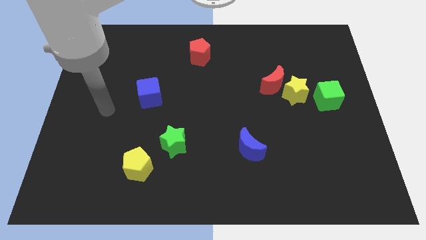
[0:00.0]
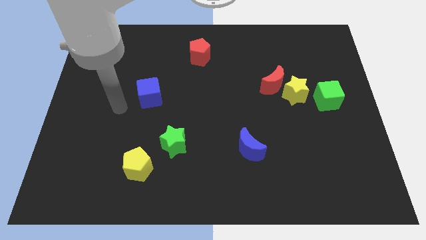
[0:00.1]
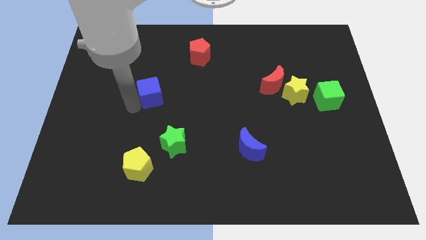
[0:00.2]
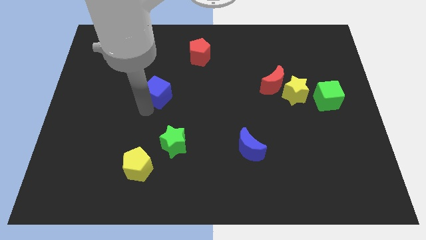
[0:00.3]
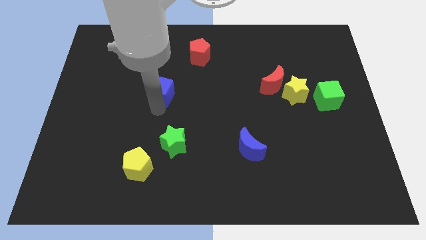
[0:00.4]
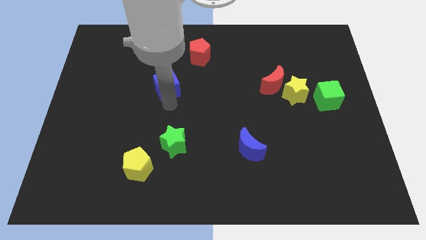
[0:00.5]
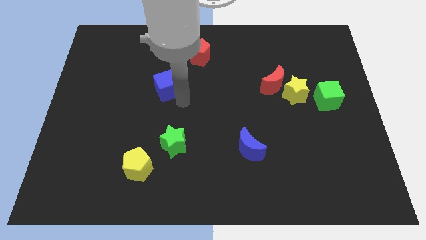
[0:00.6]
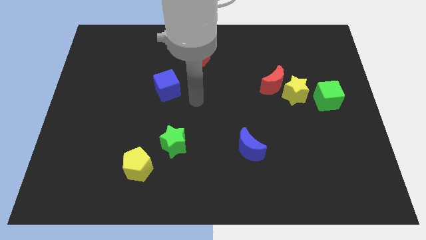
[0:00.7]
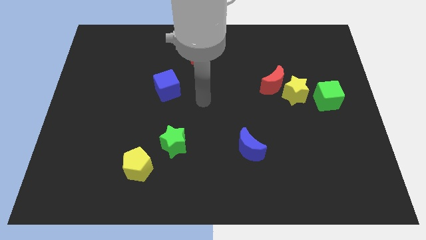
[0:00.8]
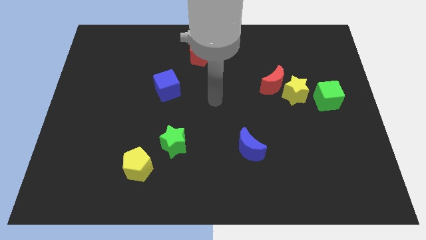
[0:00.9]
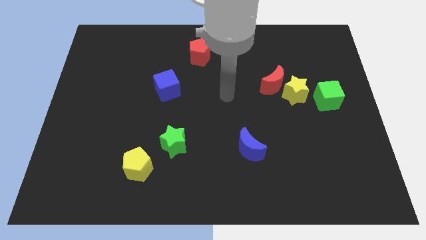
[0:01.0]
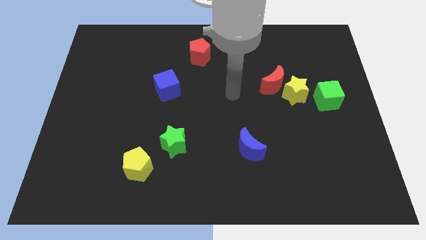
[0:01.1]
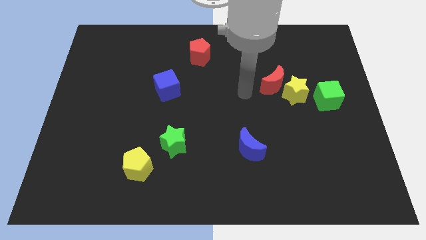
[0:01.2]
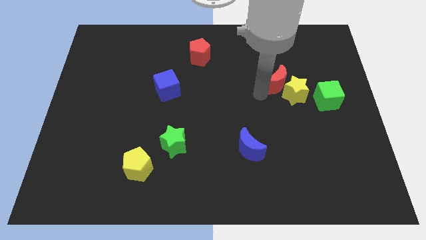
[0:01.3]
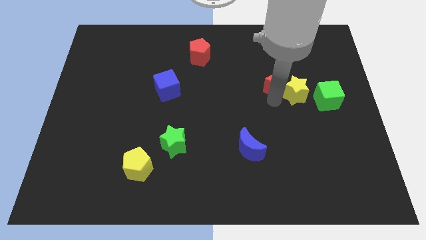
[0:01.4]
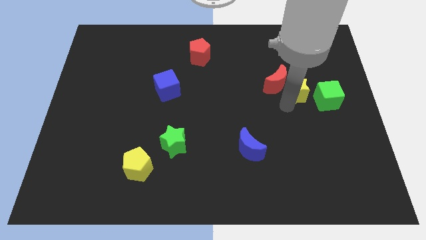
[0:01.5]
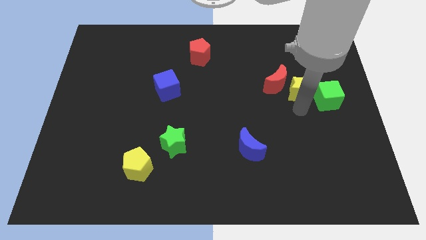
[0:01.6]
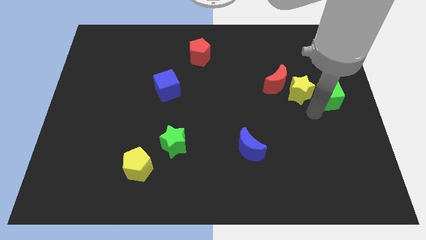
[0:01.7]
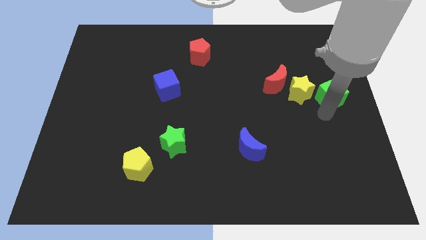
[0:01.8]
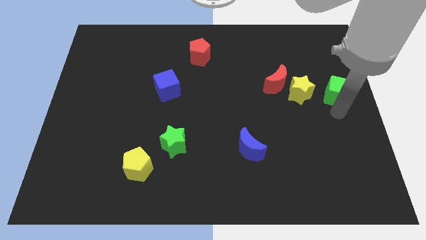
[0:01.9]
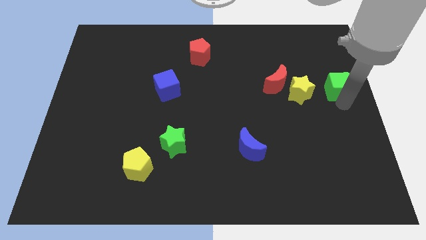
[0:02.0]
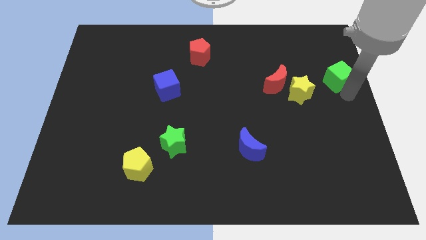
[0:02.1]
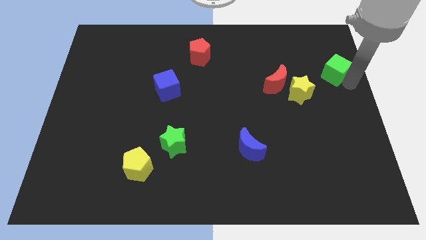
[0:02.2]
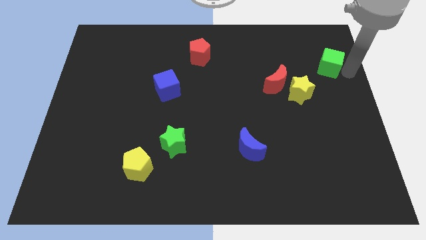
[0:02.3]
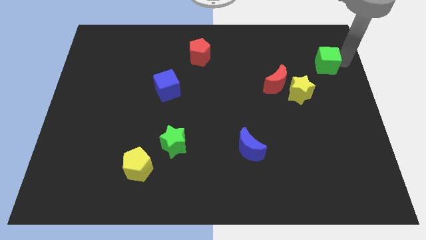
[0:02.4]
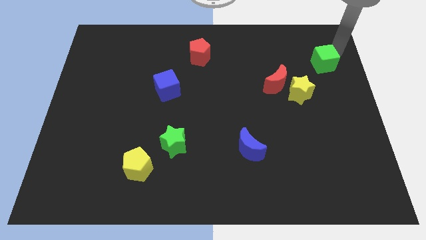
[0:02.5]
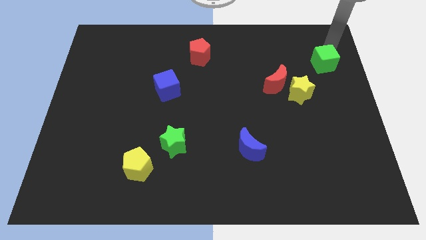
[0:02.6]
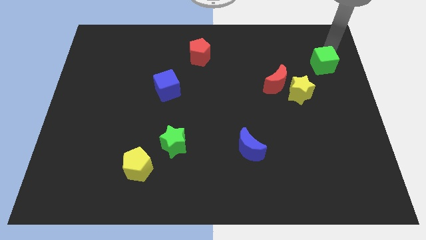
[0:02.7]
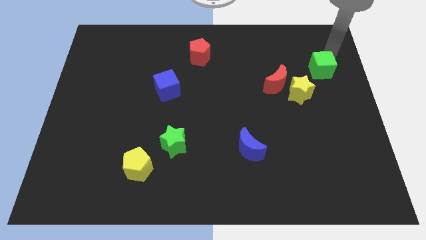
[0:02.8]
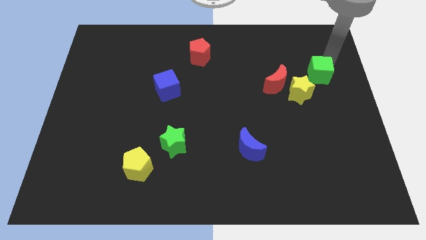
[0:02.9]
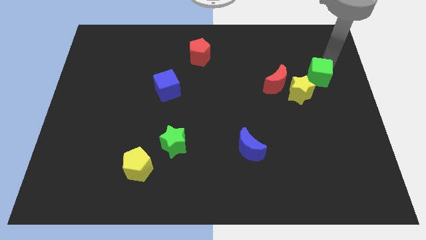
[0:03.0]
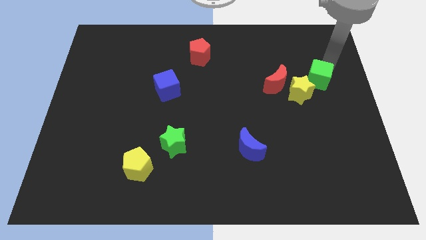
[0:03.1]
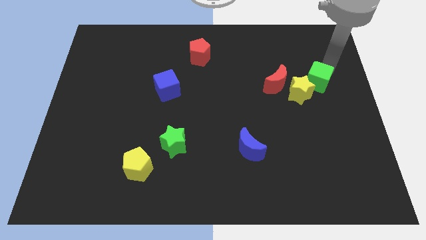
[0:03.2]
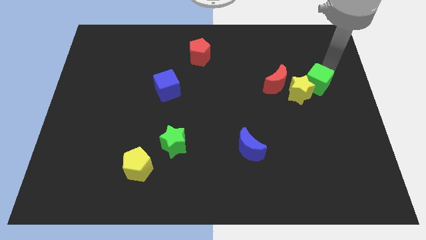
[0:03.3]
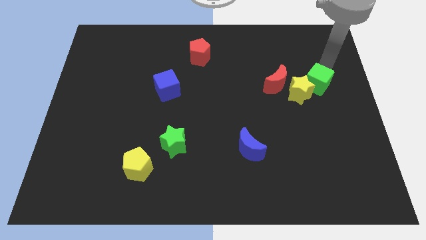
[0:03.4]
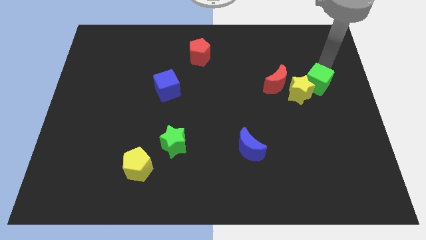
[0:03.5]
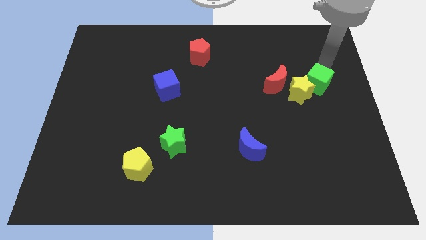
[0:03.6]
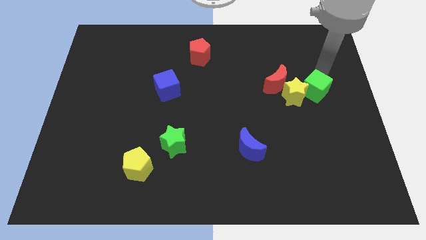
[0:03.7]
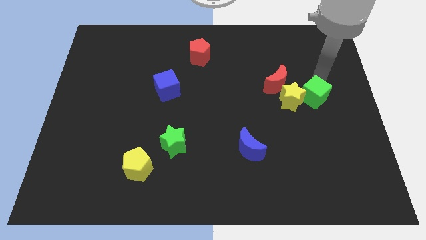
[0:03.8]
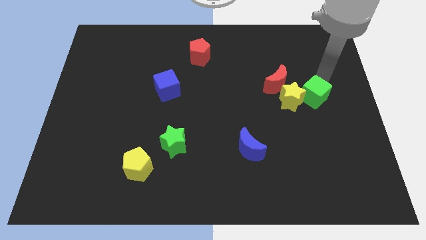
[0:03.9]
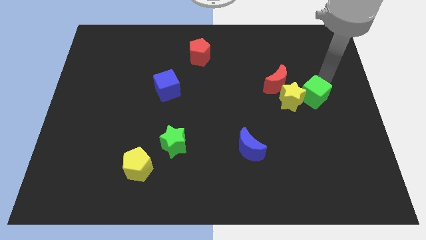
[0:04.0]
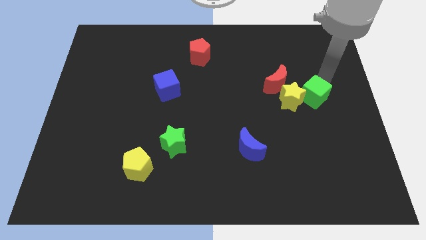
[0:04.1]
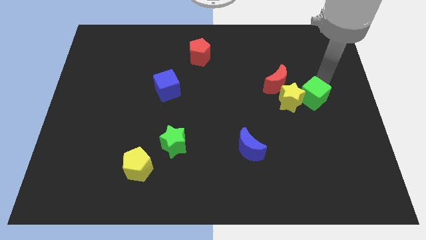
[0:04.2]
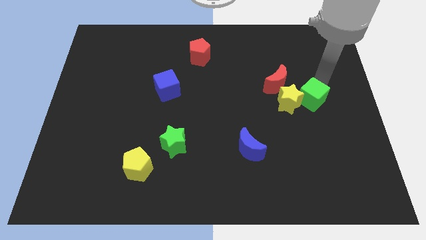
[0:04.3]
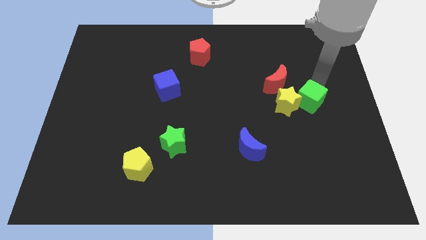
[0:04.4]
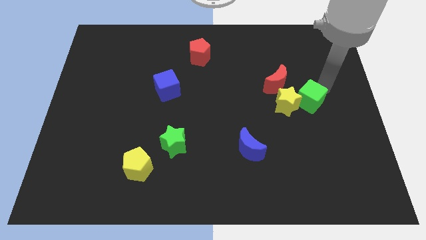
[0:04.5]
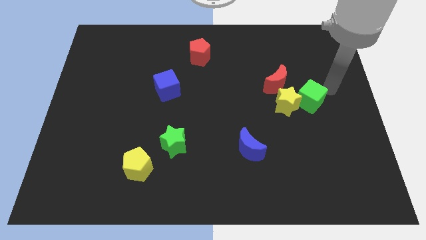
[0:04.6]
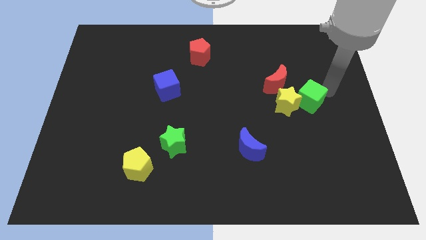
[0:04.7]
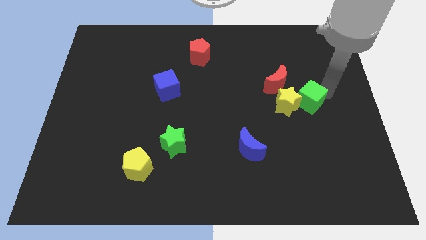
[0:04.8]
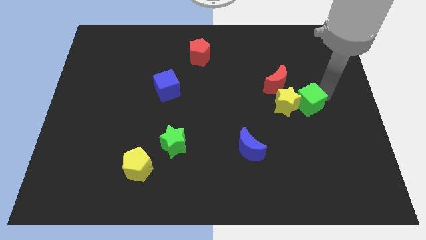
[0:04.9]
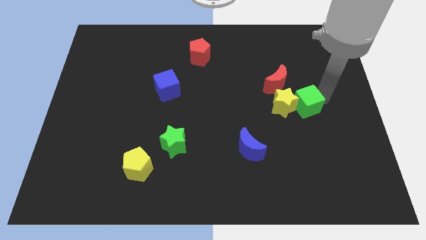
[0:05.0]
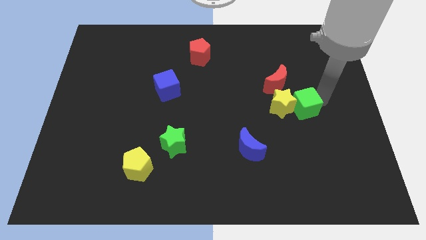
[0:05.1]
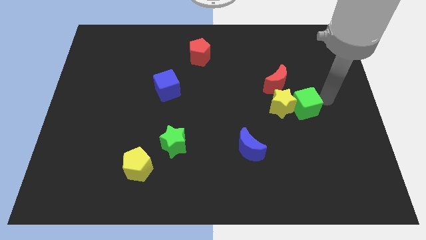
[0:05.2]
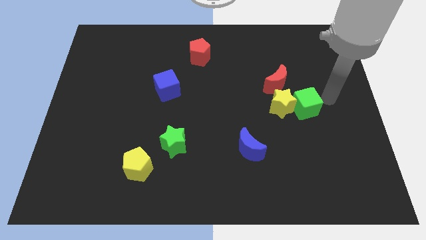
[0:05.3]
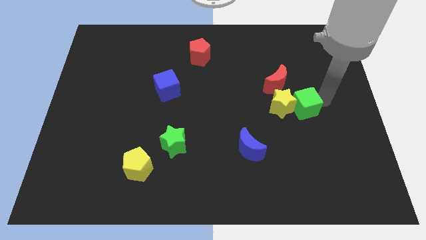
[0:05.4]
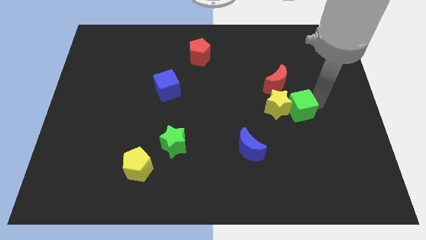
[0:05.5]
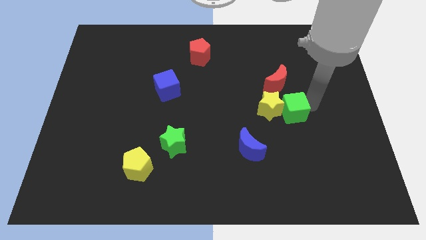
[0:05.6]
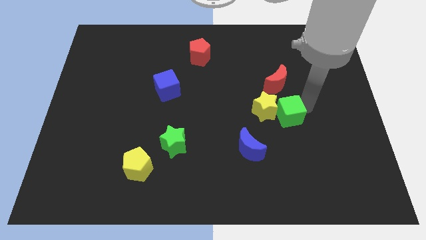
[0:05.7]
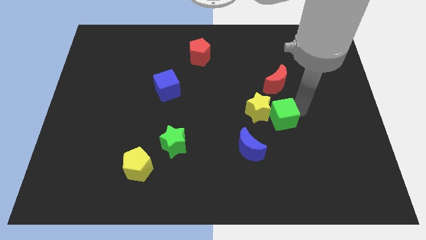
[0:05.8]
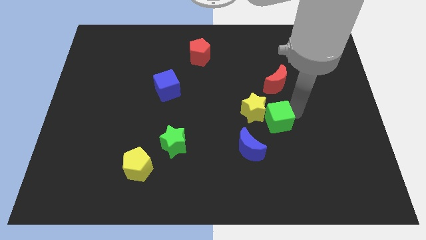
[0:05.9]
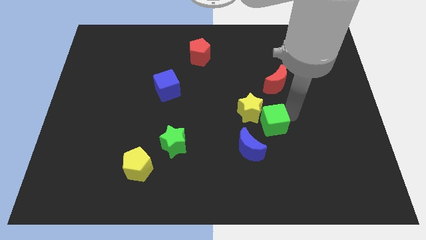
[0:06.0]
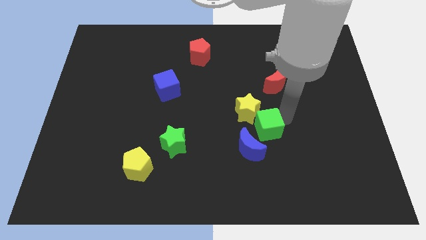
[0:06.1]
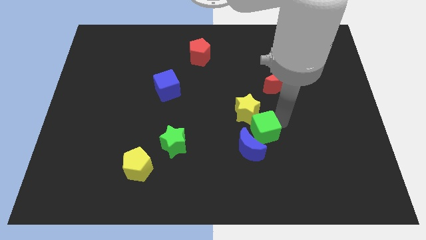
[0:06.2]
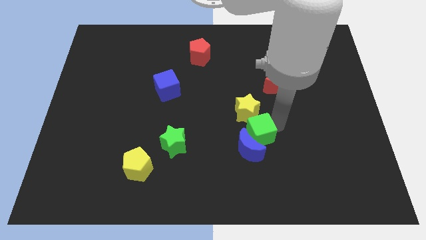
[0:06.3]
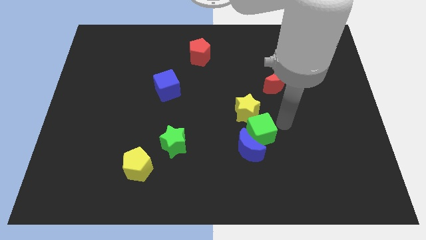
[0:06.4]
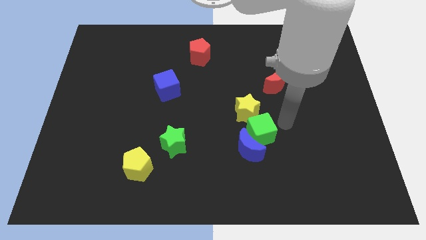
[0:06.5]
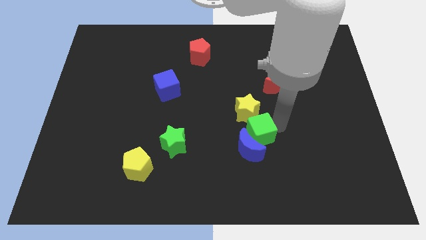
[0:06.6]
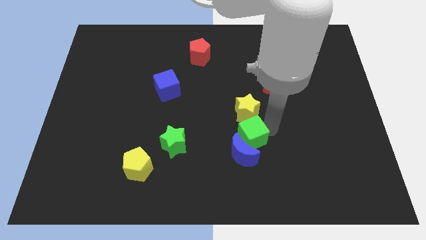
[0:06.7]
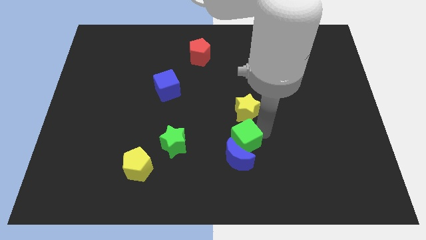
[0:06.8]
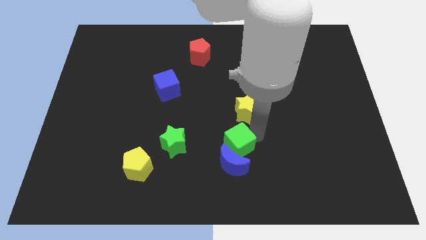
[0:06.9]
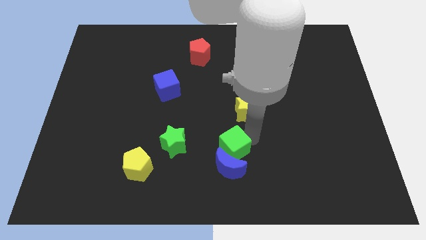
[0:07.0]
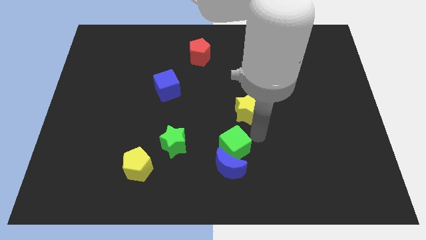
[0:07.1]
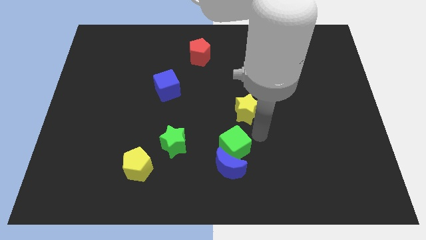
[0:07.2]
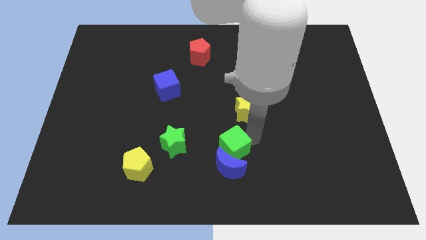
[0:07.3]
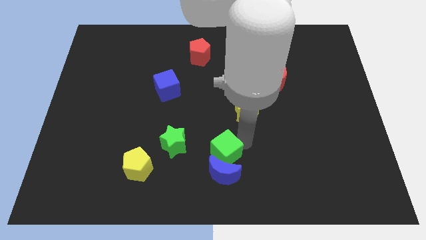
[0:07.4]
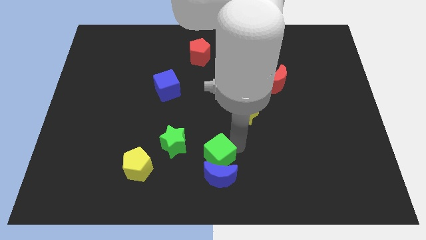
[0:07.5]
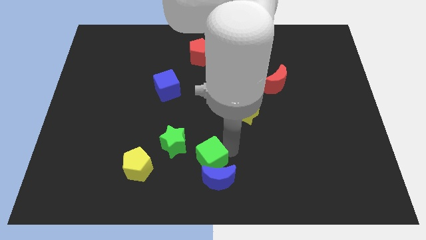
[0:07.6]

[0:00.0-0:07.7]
slide the green cube to the bottom right side of the green star
